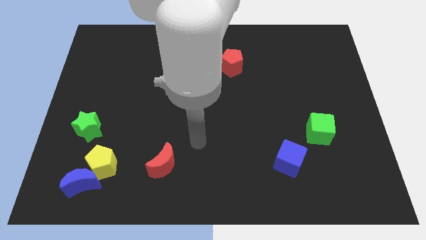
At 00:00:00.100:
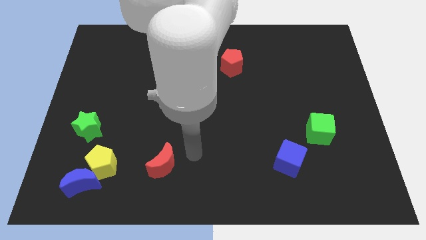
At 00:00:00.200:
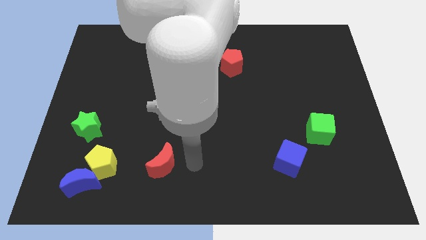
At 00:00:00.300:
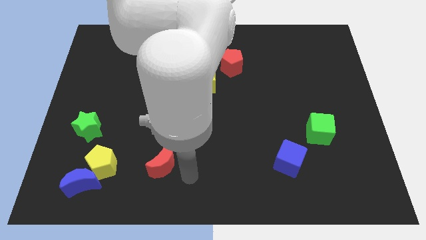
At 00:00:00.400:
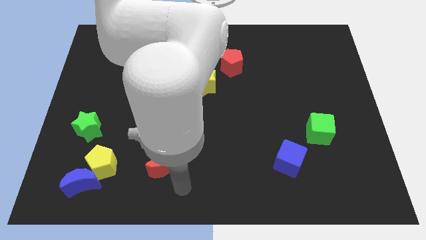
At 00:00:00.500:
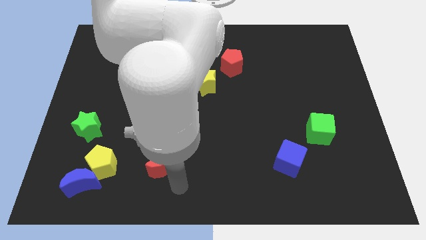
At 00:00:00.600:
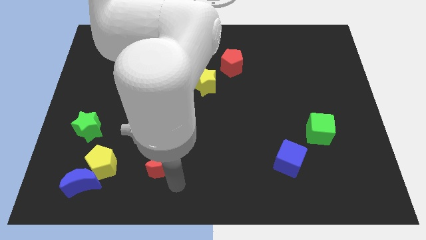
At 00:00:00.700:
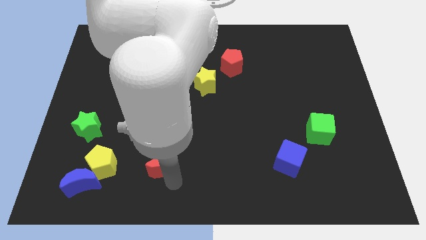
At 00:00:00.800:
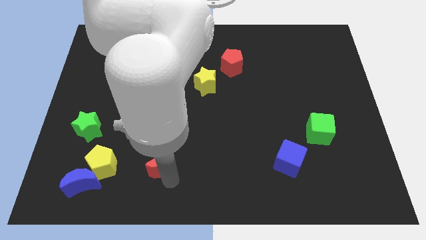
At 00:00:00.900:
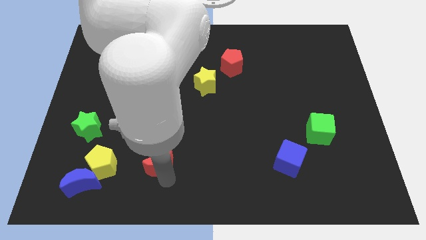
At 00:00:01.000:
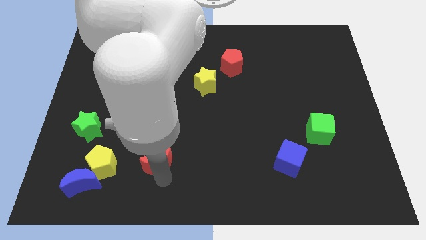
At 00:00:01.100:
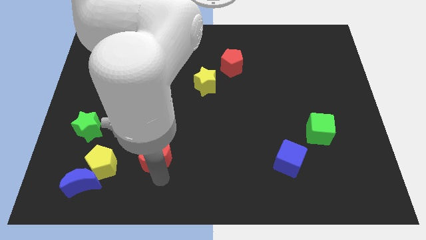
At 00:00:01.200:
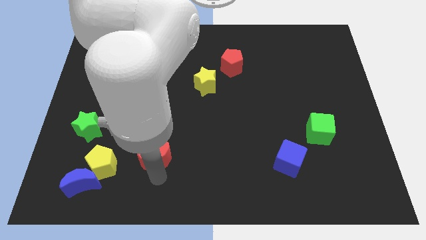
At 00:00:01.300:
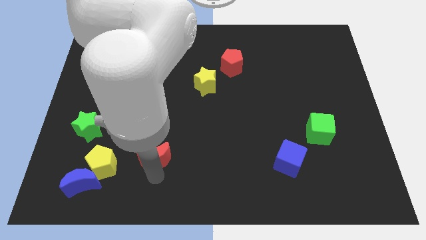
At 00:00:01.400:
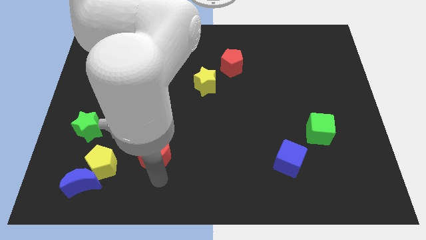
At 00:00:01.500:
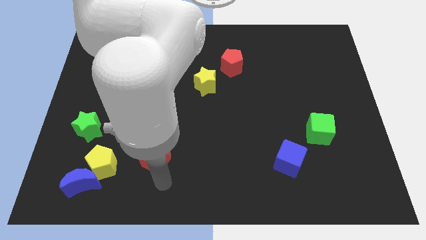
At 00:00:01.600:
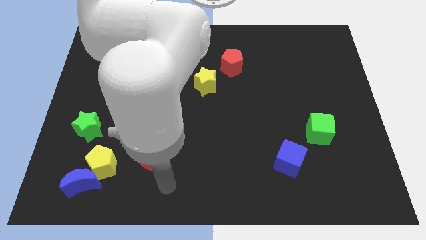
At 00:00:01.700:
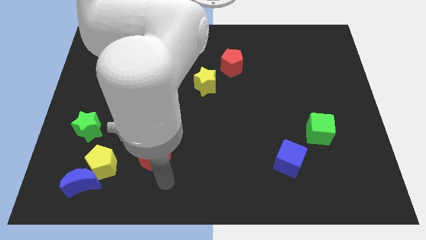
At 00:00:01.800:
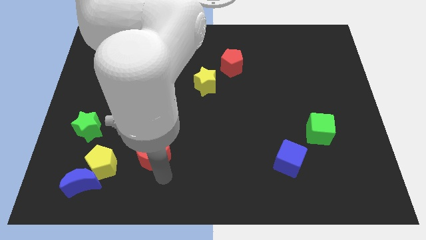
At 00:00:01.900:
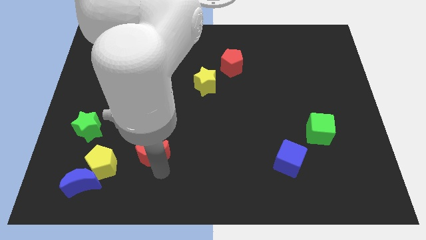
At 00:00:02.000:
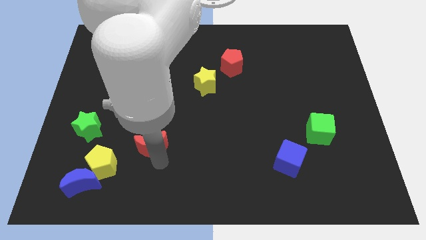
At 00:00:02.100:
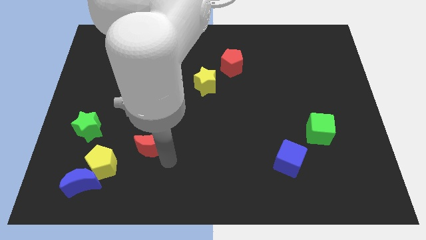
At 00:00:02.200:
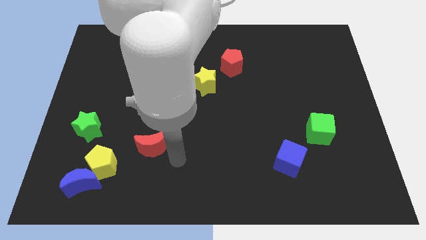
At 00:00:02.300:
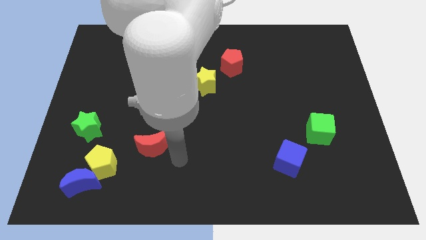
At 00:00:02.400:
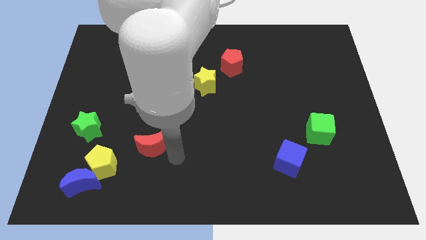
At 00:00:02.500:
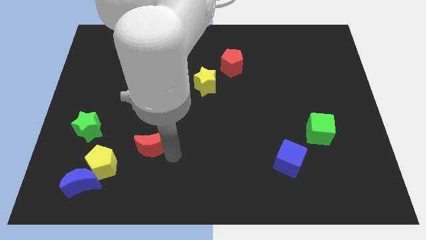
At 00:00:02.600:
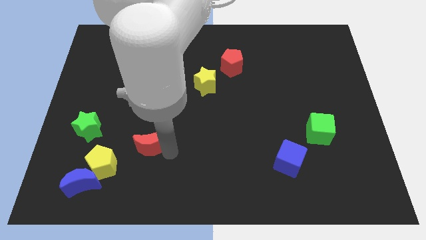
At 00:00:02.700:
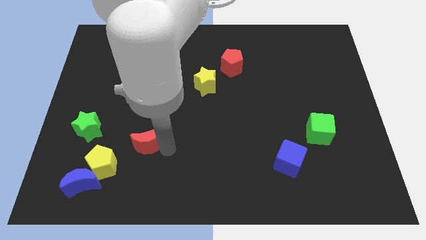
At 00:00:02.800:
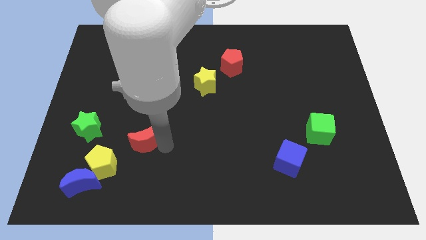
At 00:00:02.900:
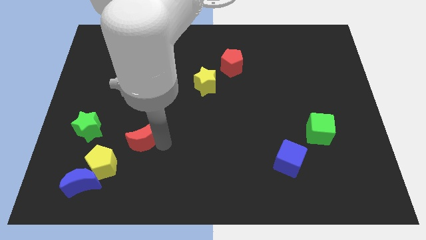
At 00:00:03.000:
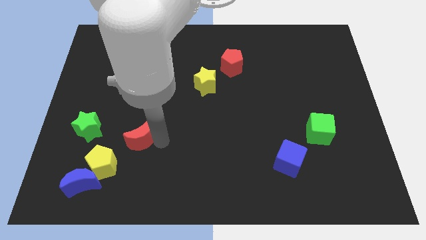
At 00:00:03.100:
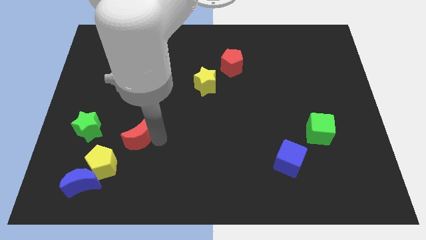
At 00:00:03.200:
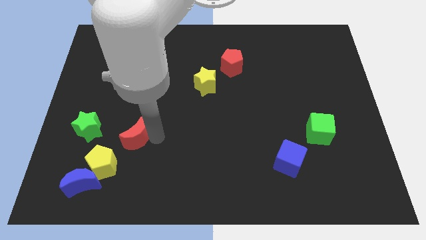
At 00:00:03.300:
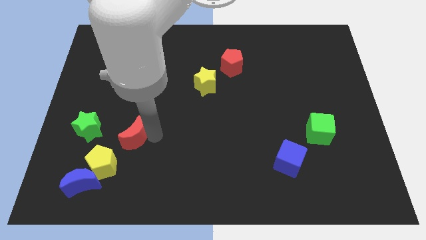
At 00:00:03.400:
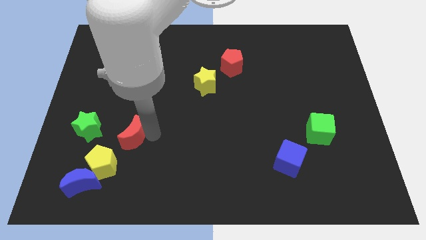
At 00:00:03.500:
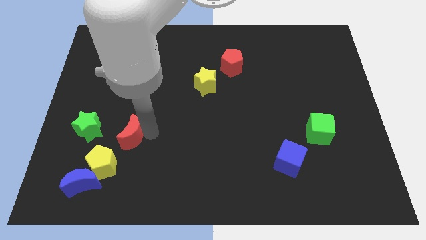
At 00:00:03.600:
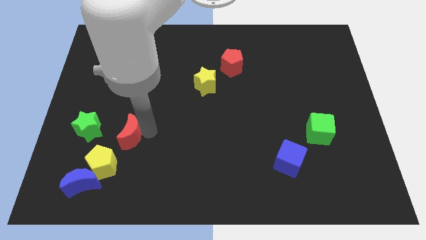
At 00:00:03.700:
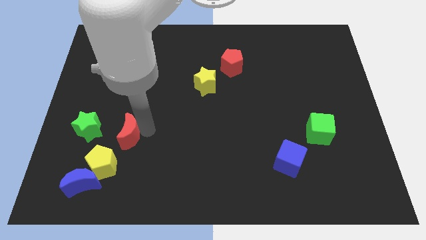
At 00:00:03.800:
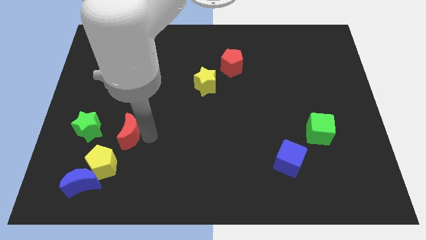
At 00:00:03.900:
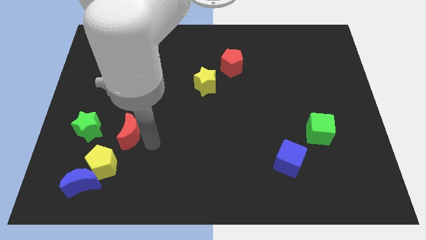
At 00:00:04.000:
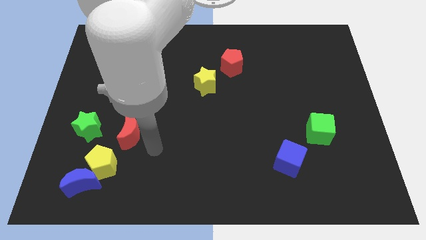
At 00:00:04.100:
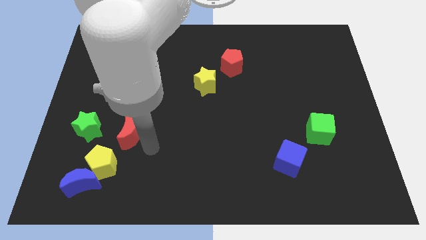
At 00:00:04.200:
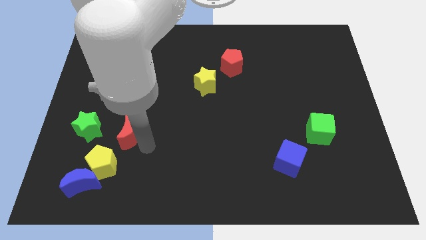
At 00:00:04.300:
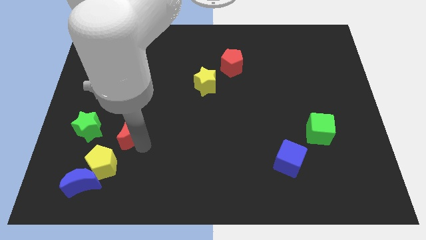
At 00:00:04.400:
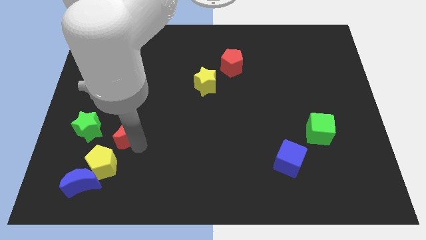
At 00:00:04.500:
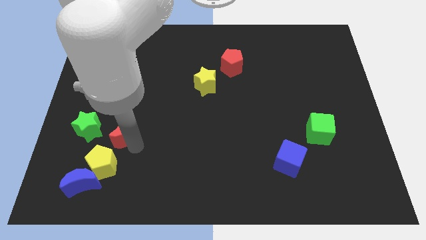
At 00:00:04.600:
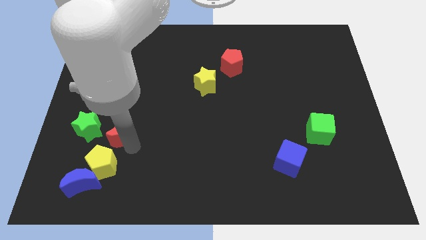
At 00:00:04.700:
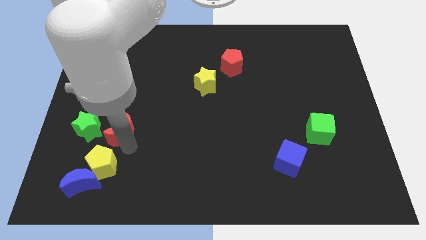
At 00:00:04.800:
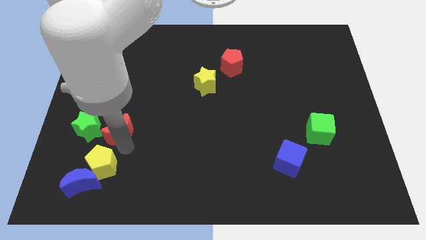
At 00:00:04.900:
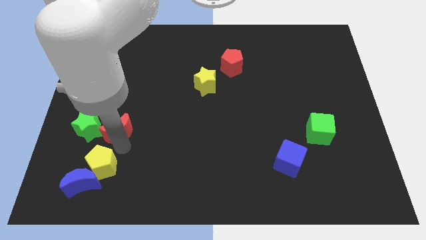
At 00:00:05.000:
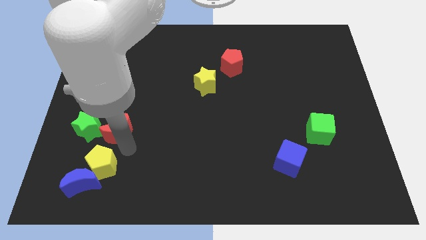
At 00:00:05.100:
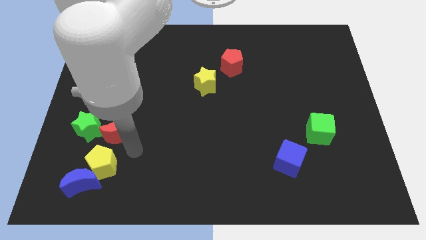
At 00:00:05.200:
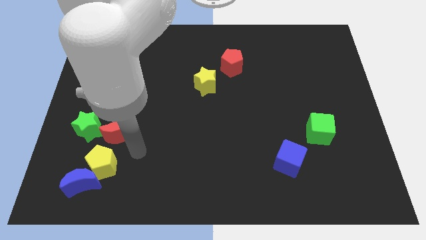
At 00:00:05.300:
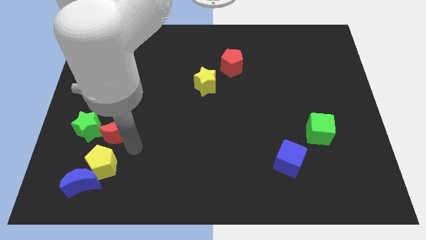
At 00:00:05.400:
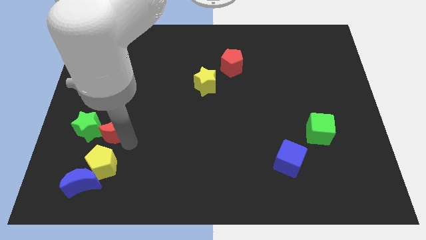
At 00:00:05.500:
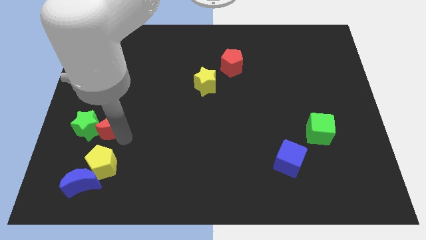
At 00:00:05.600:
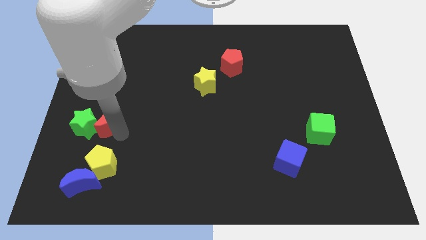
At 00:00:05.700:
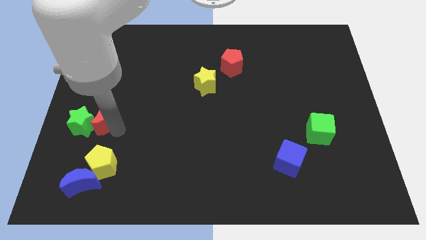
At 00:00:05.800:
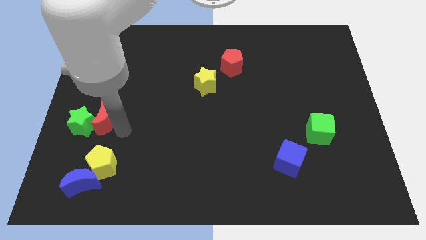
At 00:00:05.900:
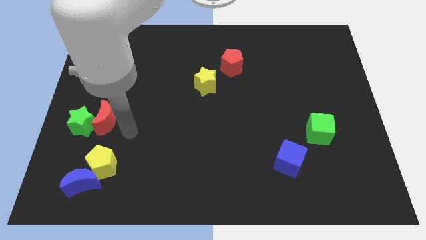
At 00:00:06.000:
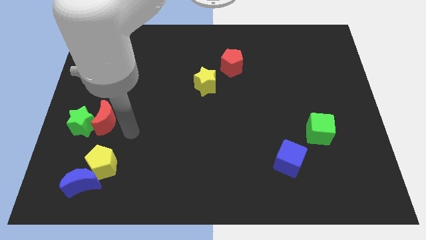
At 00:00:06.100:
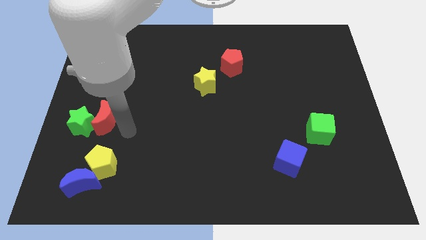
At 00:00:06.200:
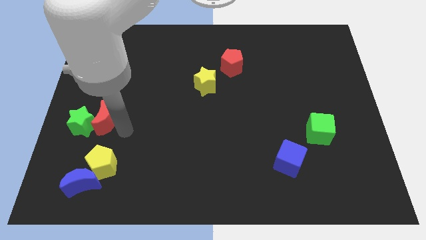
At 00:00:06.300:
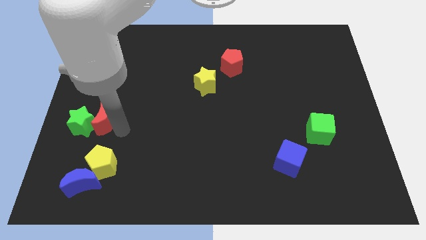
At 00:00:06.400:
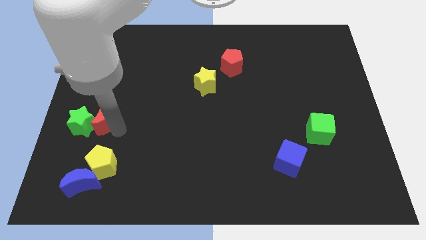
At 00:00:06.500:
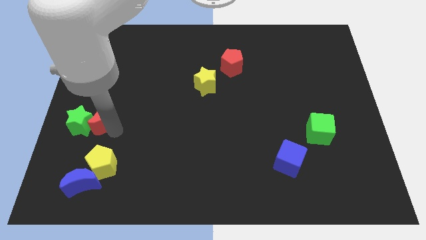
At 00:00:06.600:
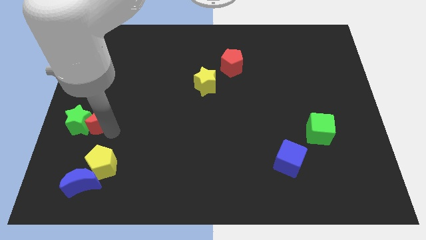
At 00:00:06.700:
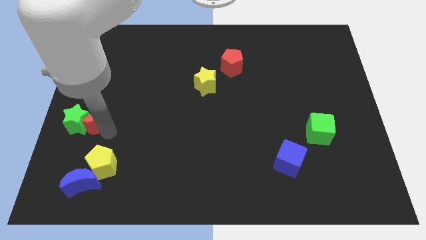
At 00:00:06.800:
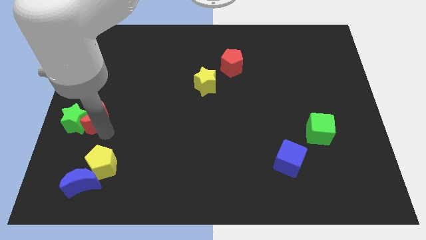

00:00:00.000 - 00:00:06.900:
slide the red moon to the left side
